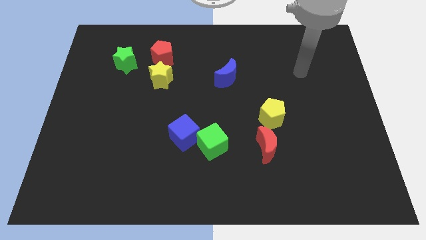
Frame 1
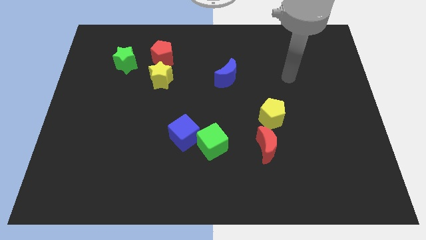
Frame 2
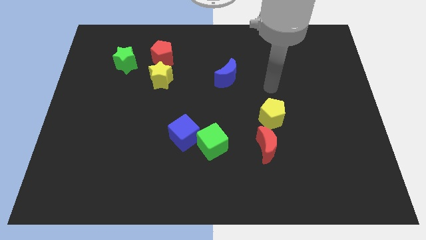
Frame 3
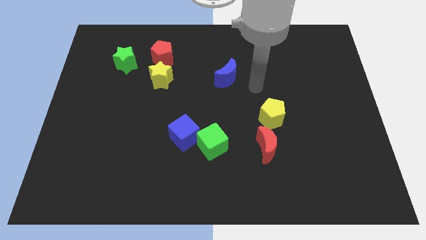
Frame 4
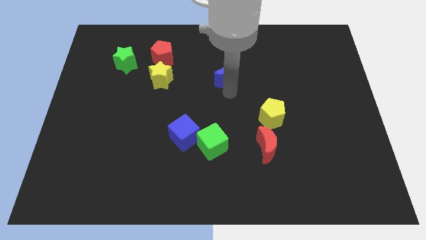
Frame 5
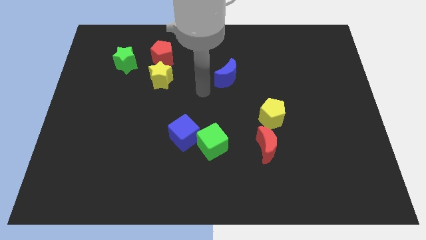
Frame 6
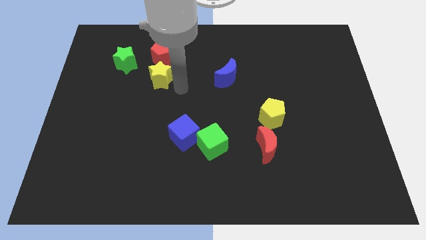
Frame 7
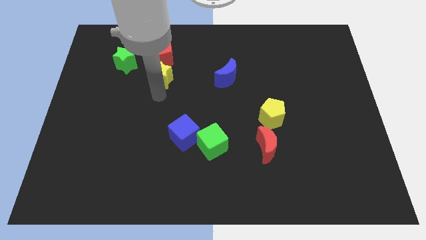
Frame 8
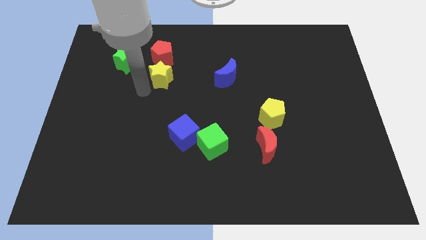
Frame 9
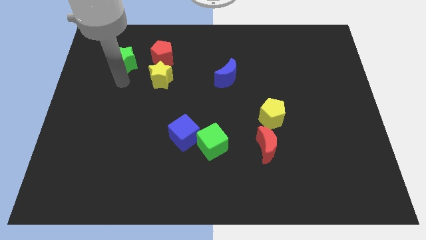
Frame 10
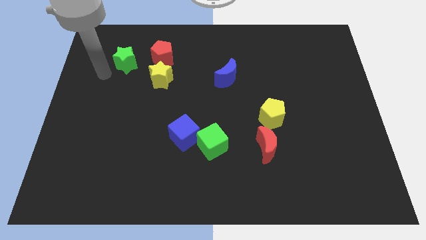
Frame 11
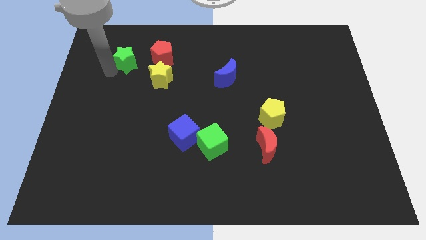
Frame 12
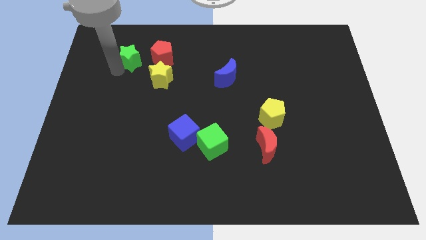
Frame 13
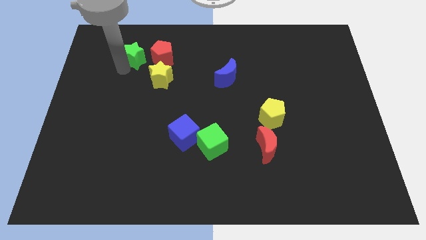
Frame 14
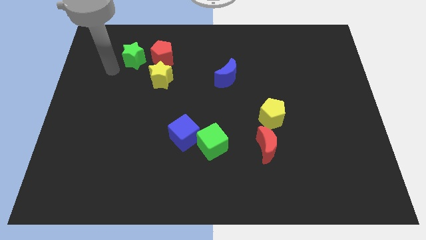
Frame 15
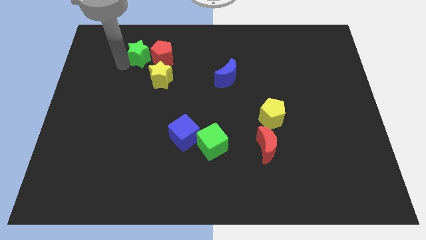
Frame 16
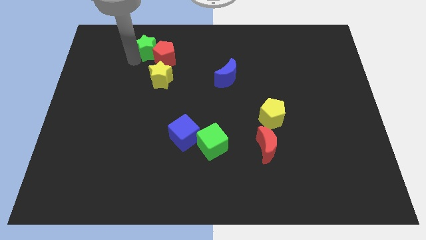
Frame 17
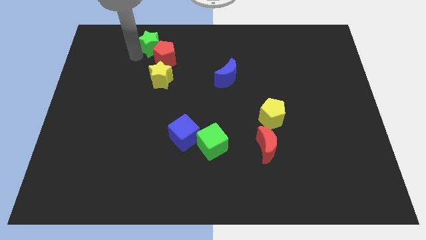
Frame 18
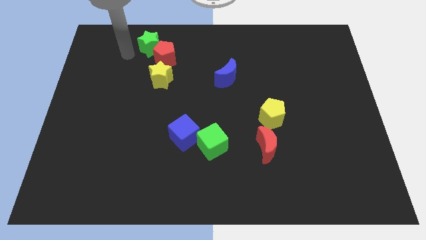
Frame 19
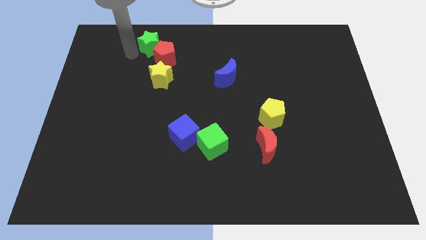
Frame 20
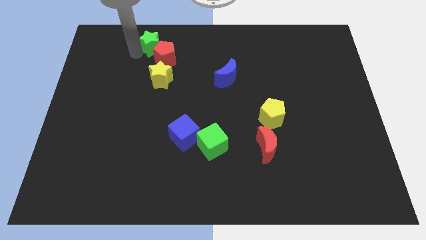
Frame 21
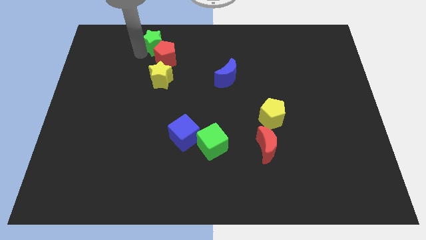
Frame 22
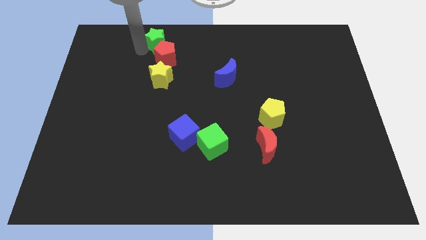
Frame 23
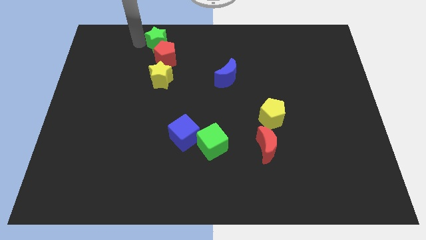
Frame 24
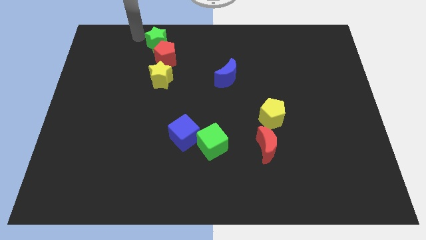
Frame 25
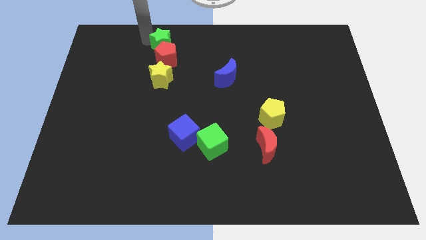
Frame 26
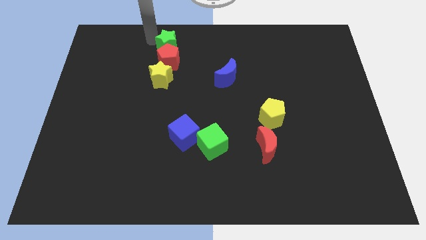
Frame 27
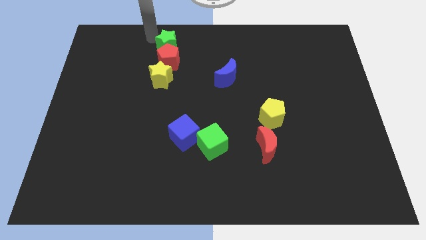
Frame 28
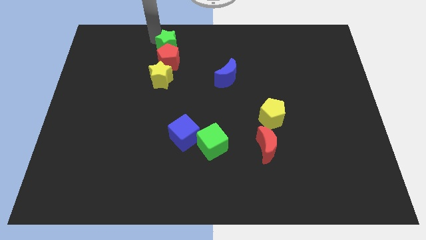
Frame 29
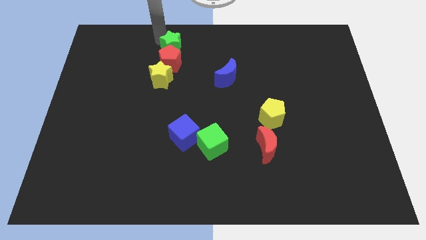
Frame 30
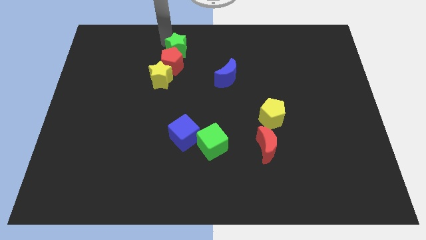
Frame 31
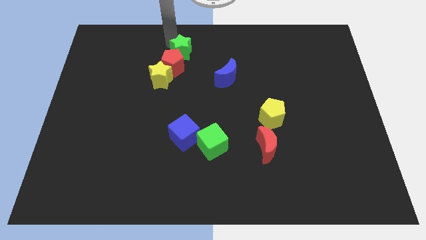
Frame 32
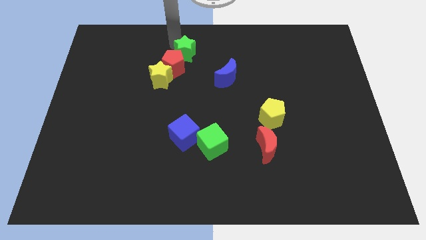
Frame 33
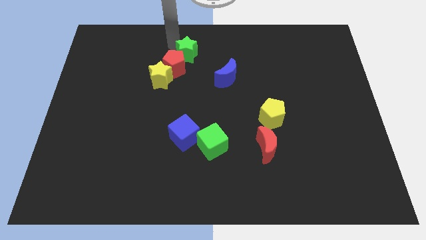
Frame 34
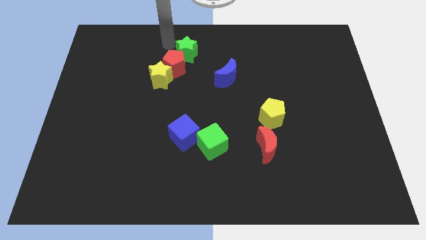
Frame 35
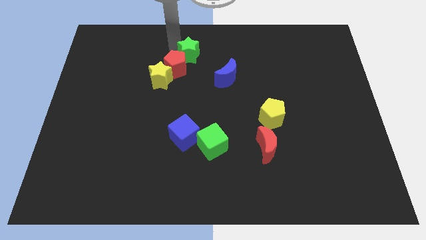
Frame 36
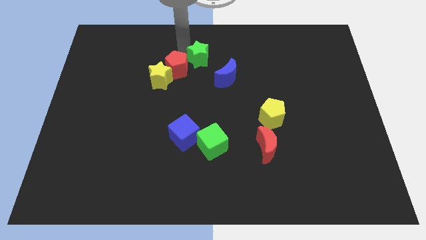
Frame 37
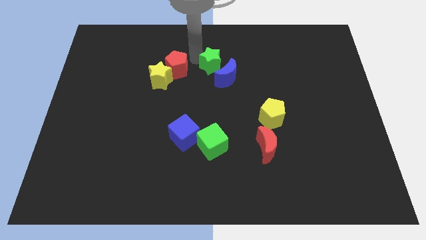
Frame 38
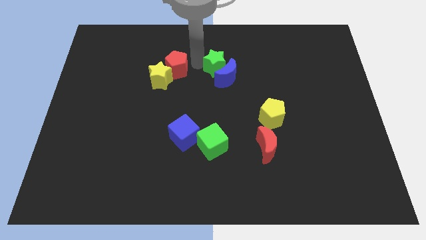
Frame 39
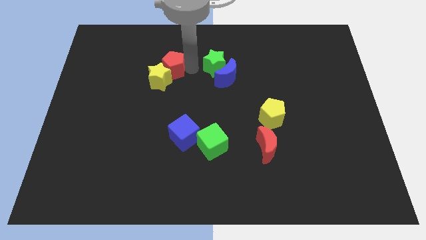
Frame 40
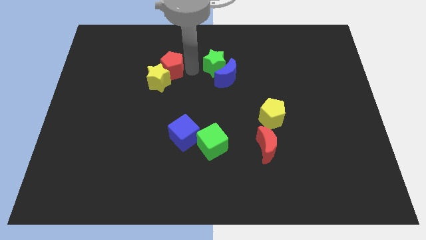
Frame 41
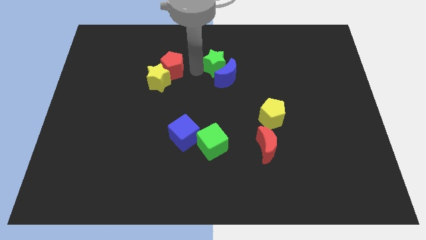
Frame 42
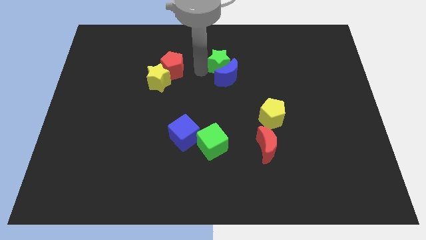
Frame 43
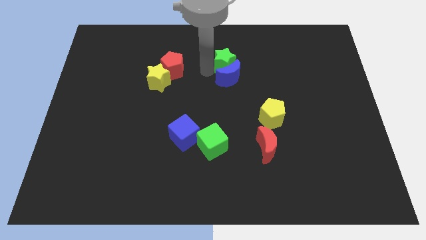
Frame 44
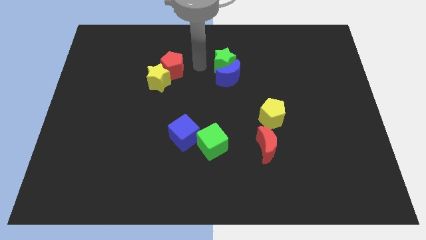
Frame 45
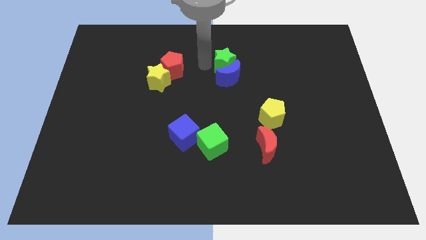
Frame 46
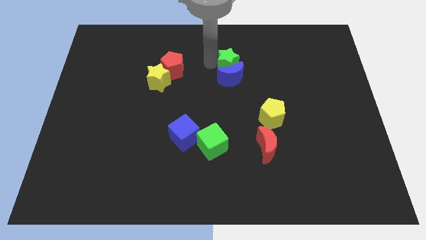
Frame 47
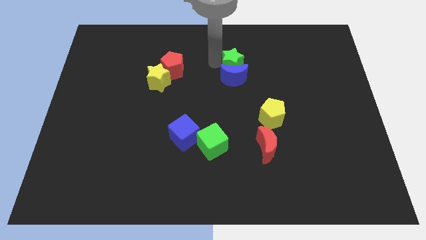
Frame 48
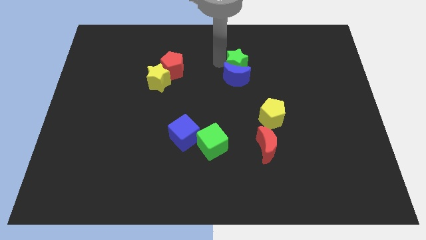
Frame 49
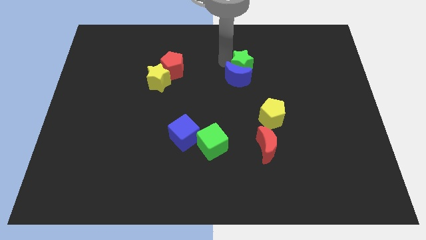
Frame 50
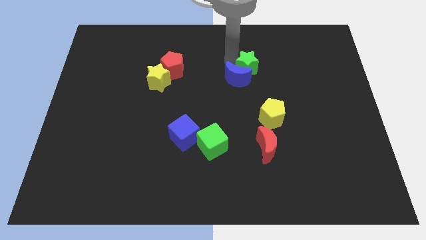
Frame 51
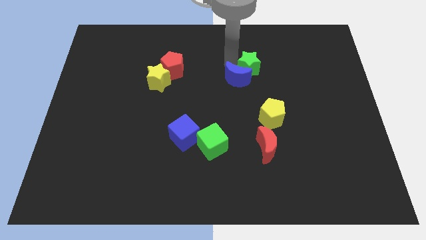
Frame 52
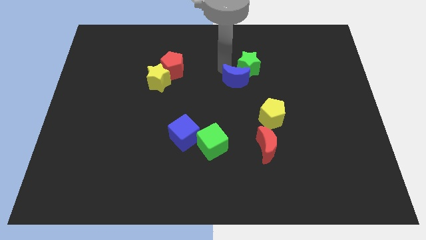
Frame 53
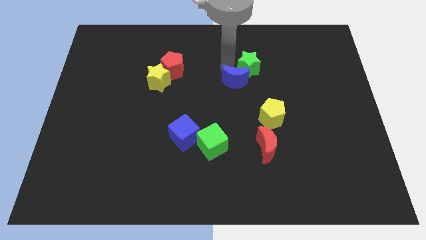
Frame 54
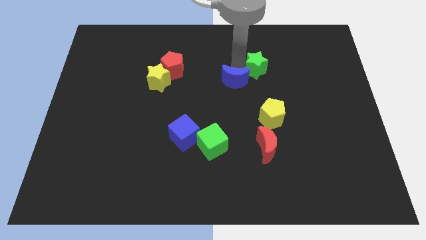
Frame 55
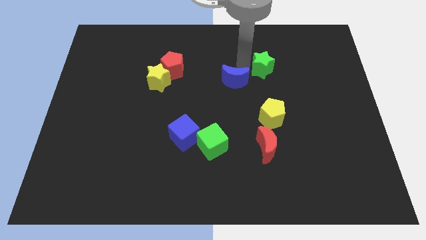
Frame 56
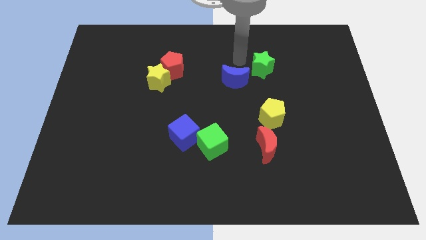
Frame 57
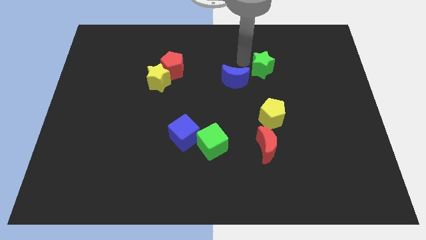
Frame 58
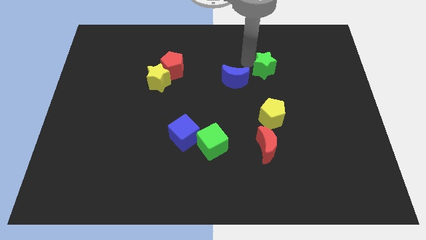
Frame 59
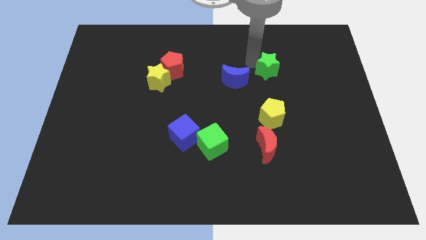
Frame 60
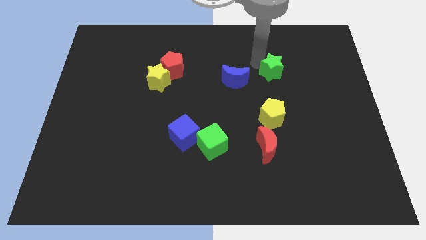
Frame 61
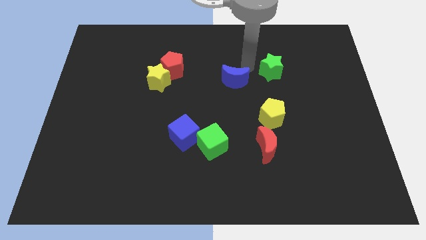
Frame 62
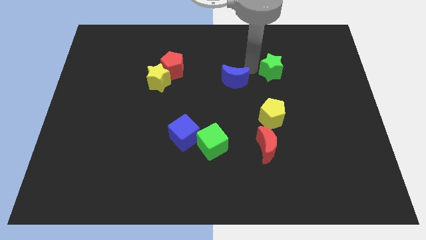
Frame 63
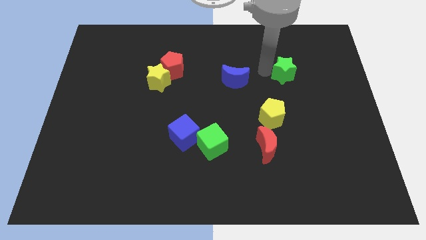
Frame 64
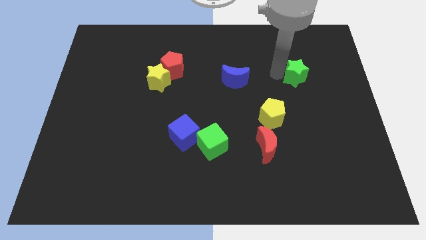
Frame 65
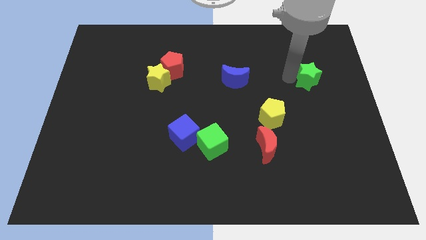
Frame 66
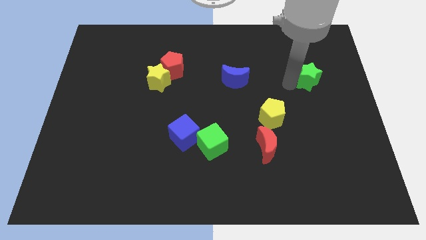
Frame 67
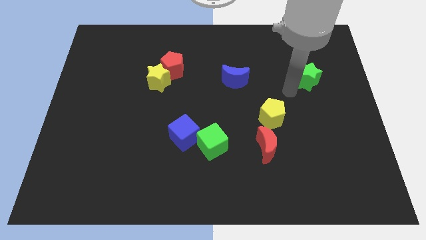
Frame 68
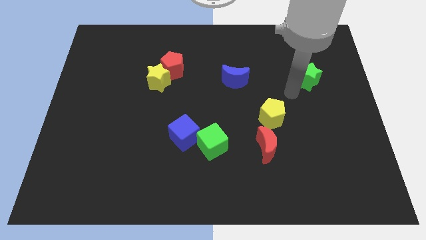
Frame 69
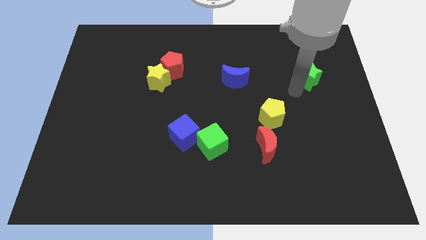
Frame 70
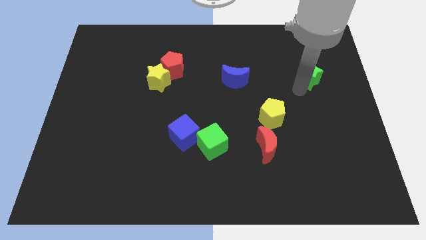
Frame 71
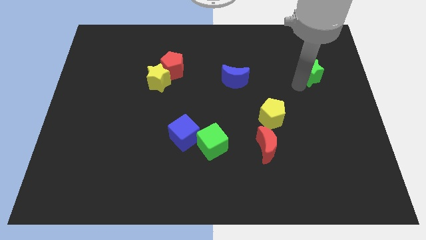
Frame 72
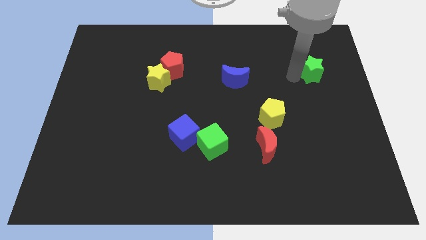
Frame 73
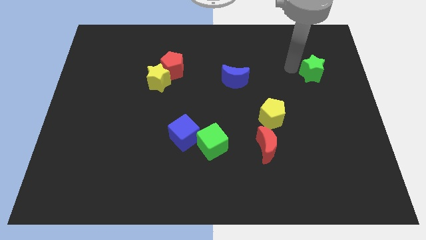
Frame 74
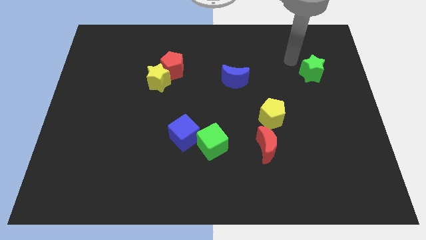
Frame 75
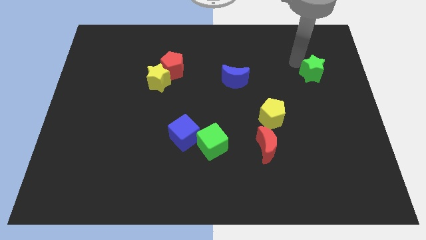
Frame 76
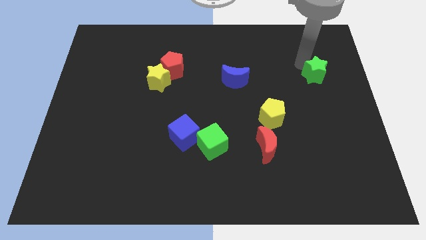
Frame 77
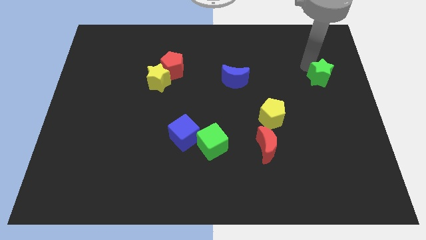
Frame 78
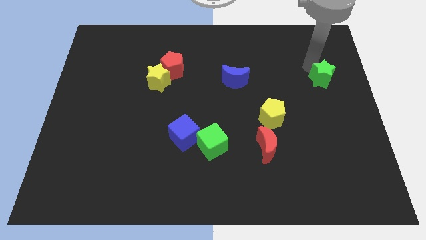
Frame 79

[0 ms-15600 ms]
push the green star to the right side of the board
